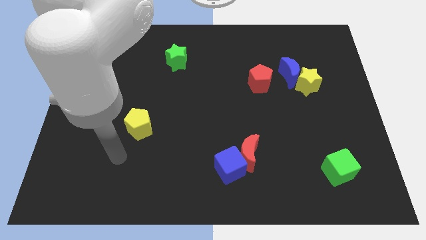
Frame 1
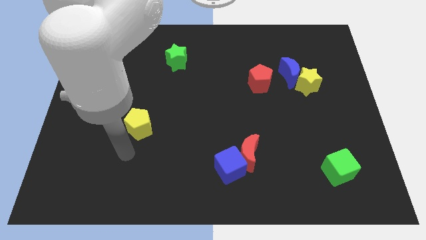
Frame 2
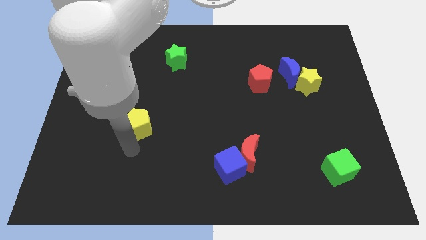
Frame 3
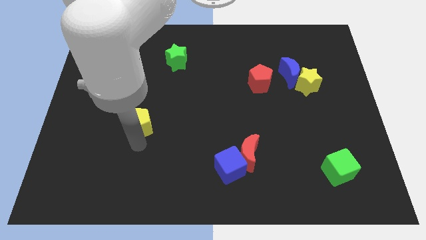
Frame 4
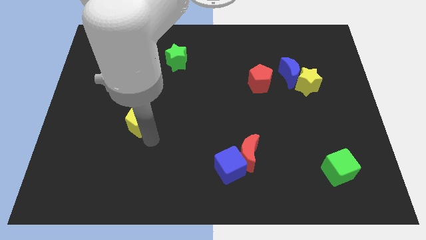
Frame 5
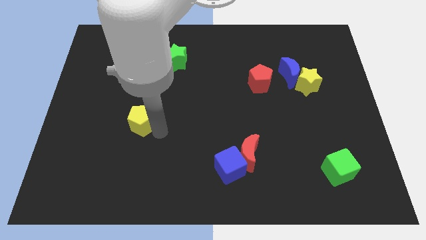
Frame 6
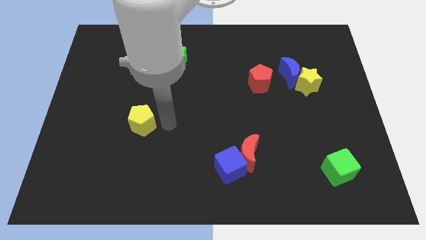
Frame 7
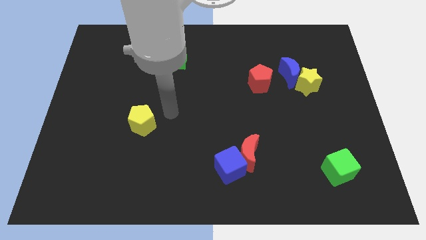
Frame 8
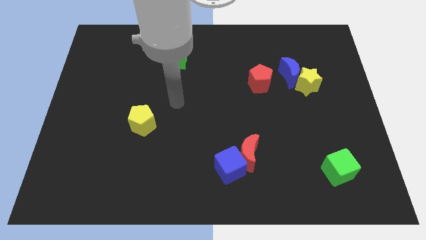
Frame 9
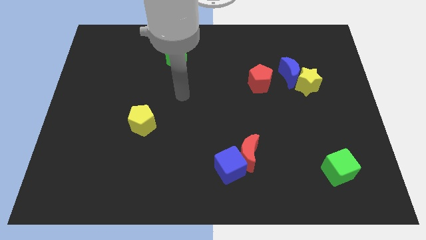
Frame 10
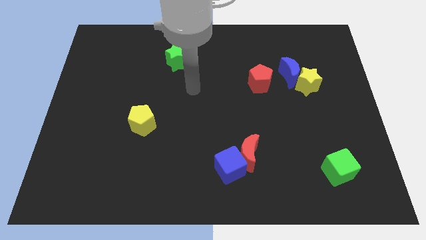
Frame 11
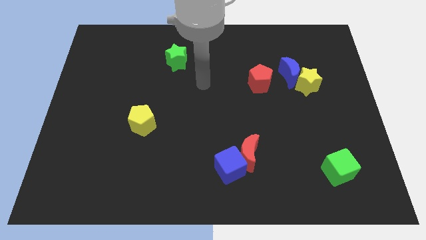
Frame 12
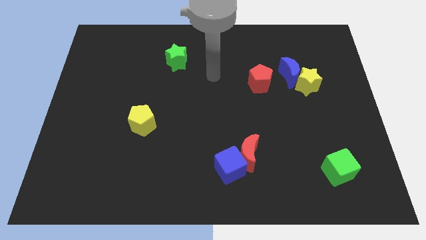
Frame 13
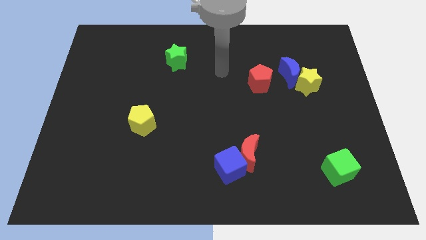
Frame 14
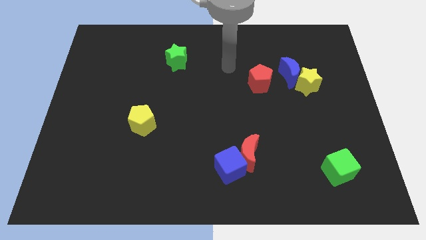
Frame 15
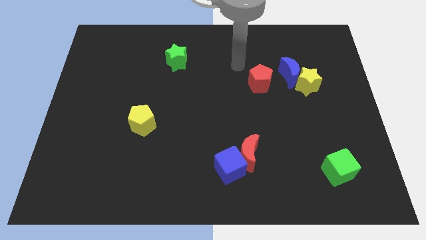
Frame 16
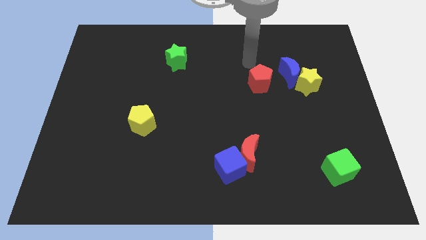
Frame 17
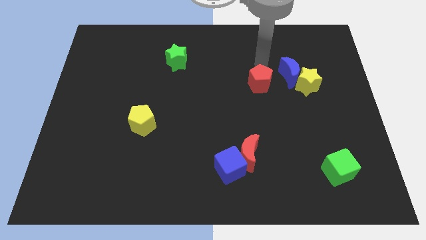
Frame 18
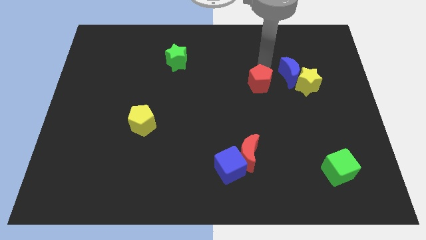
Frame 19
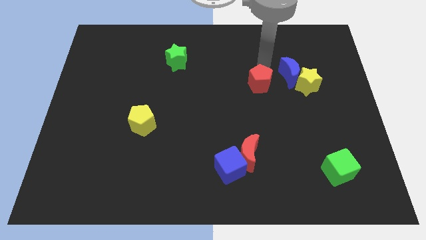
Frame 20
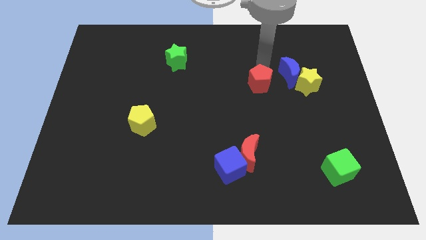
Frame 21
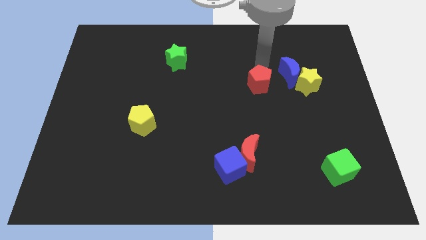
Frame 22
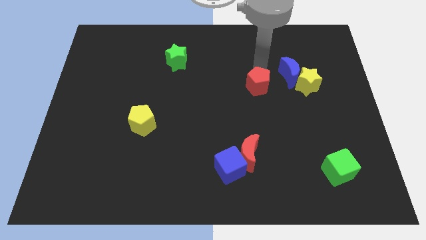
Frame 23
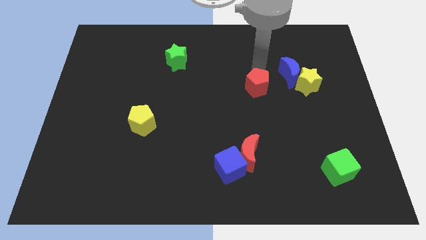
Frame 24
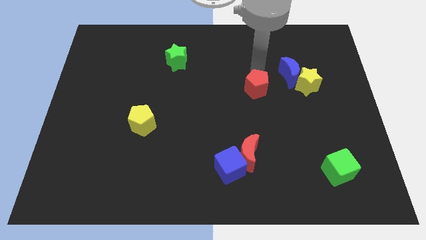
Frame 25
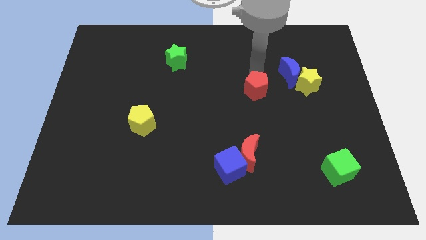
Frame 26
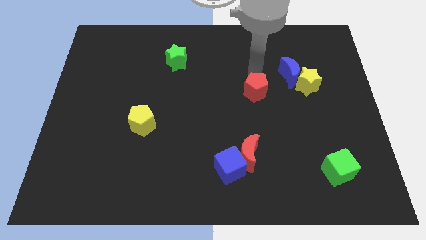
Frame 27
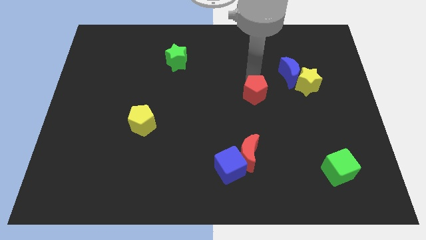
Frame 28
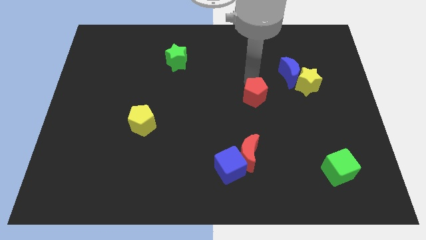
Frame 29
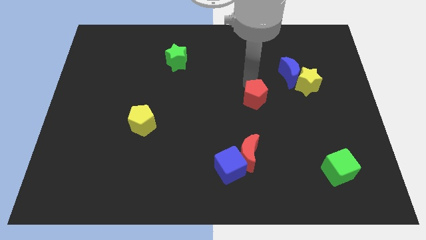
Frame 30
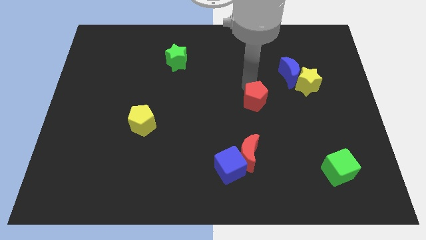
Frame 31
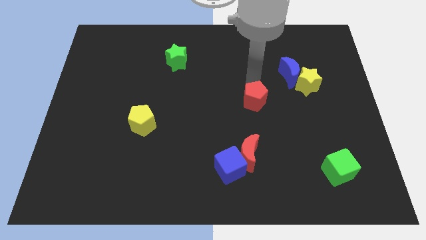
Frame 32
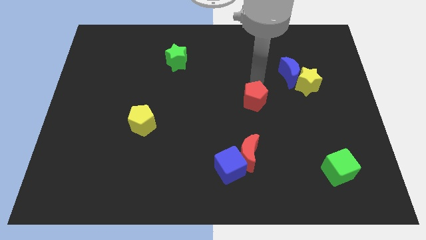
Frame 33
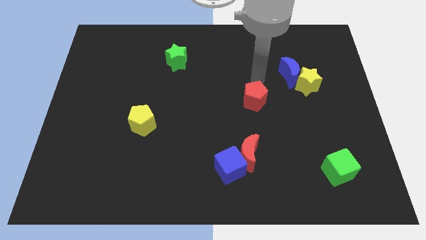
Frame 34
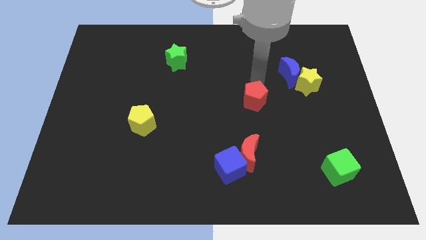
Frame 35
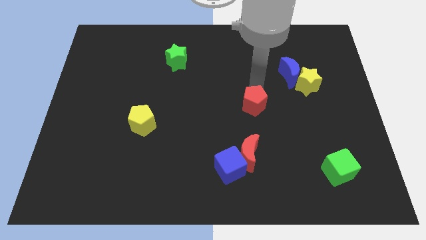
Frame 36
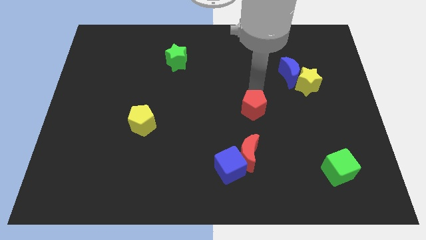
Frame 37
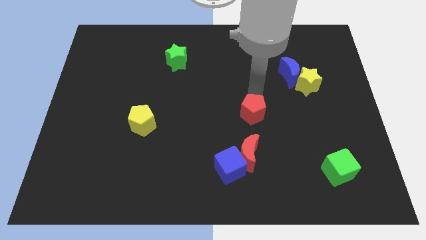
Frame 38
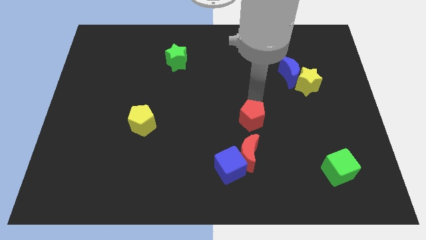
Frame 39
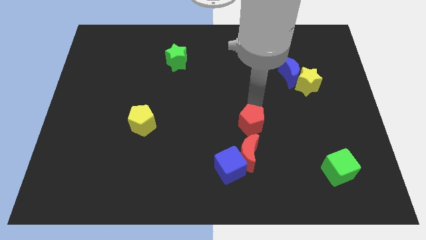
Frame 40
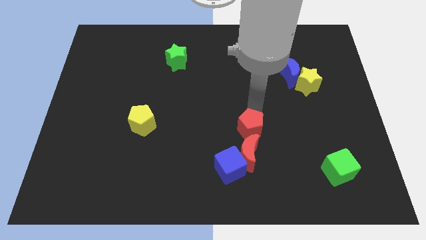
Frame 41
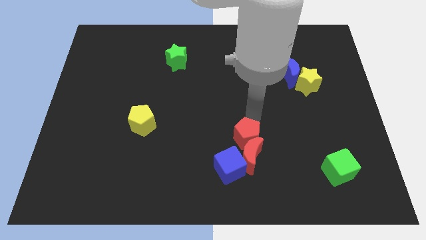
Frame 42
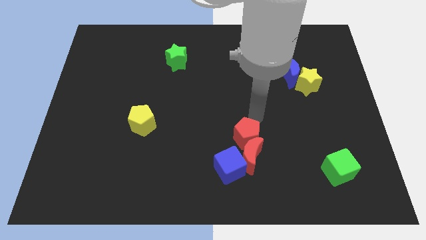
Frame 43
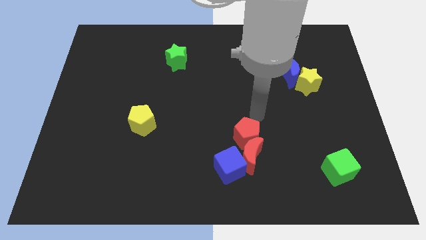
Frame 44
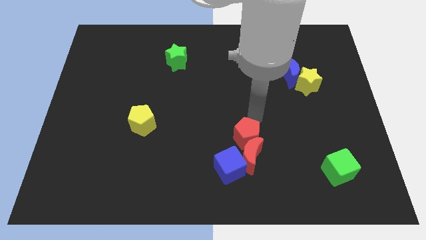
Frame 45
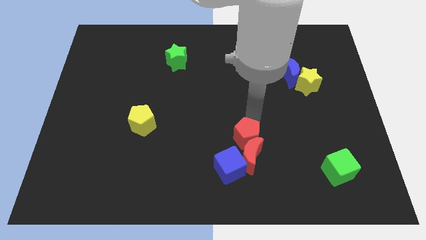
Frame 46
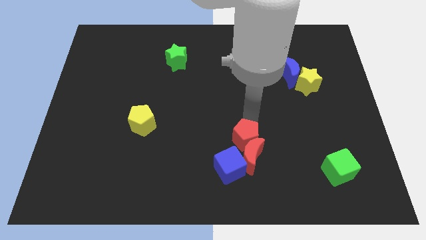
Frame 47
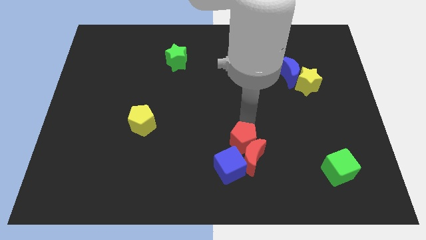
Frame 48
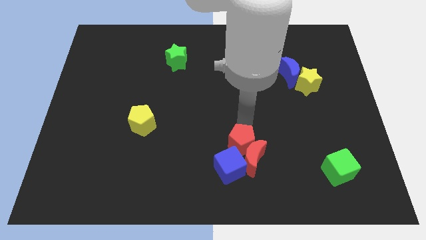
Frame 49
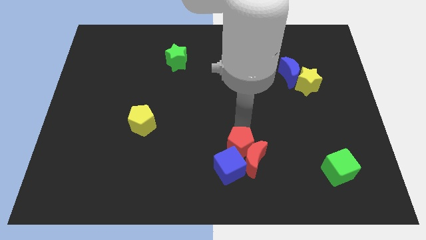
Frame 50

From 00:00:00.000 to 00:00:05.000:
move the red pentagon next to the blue cube

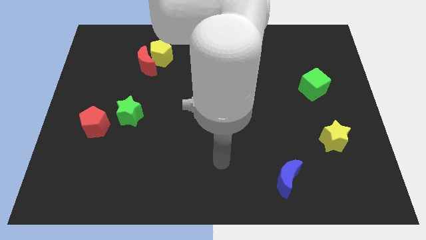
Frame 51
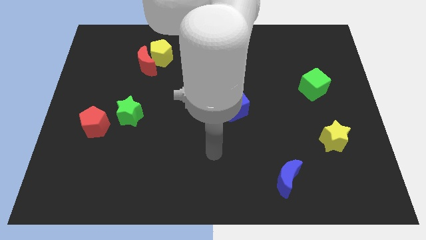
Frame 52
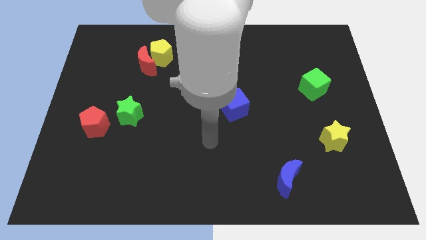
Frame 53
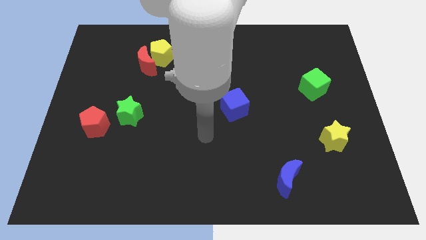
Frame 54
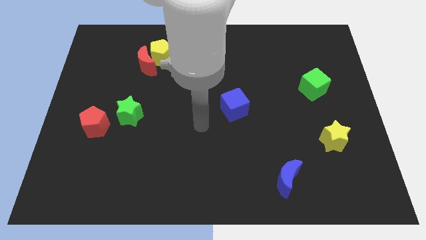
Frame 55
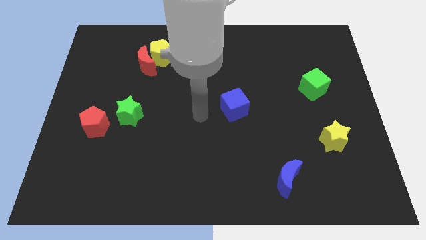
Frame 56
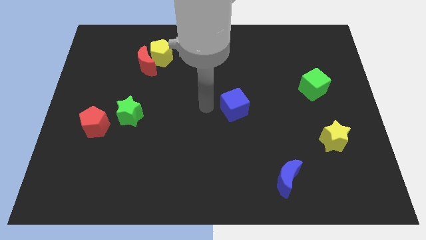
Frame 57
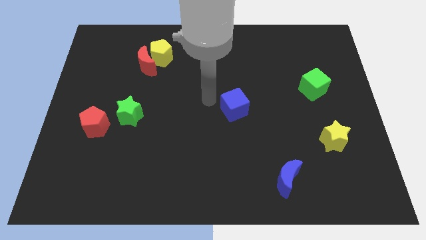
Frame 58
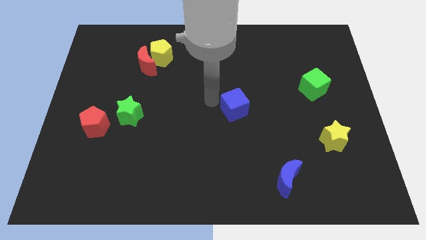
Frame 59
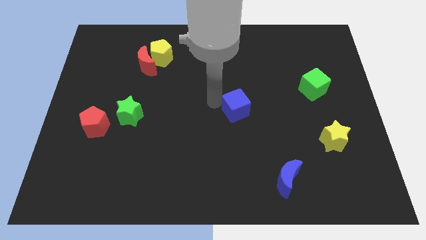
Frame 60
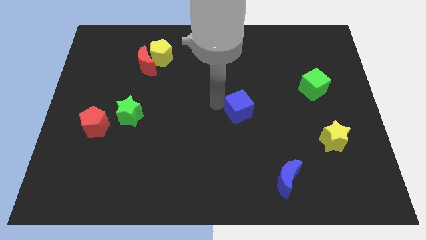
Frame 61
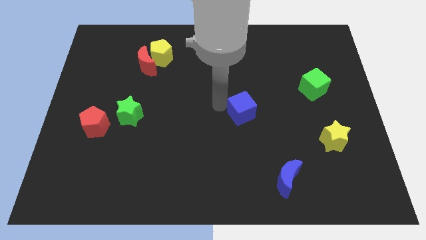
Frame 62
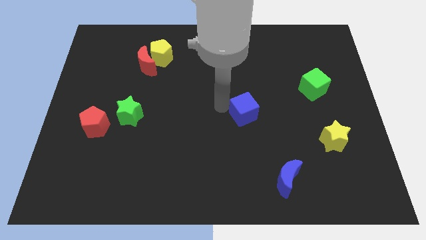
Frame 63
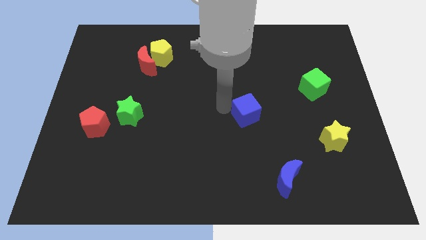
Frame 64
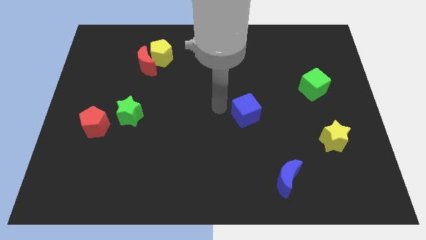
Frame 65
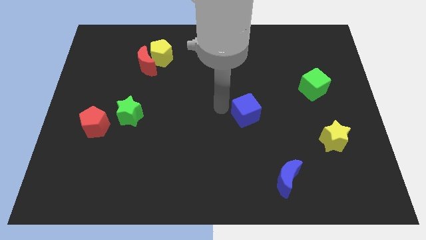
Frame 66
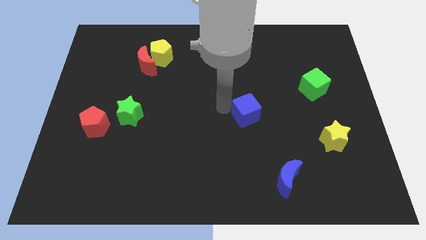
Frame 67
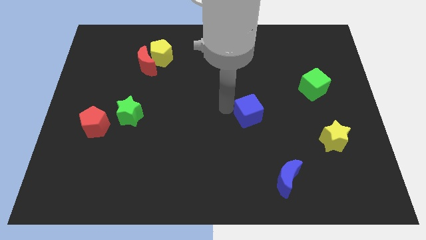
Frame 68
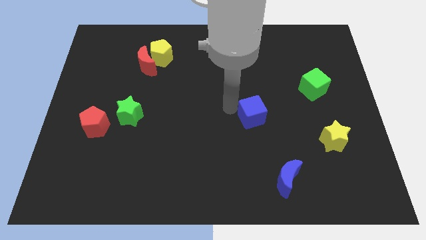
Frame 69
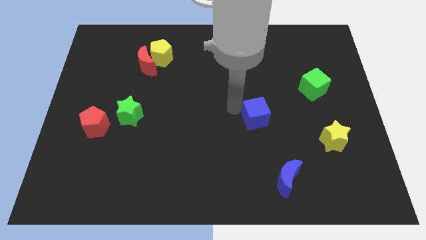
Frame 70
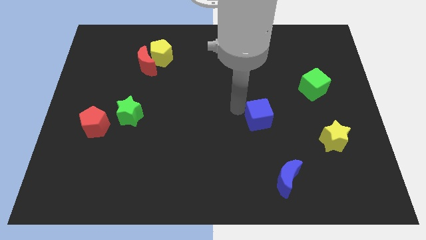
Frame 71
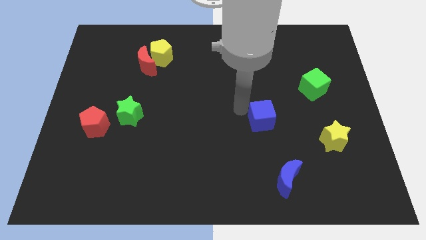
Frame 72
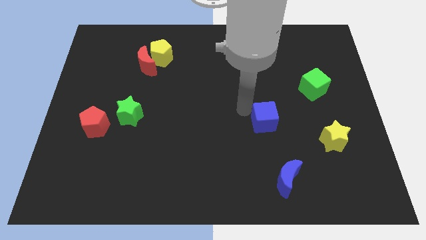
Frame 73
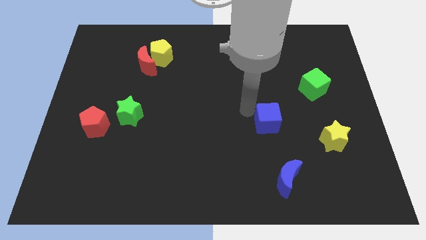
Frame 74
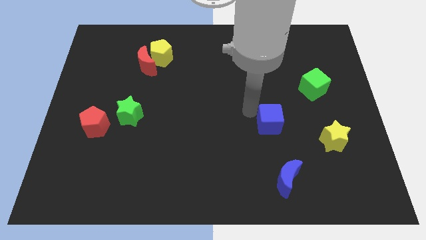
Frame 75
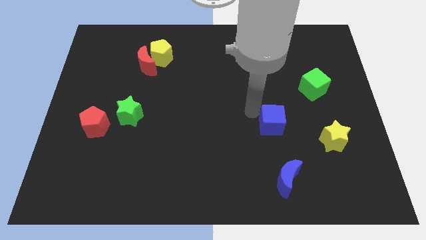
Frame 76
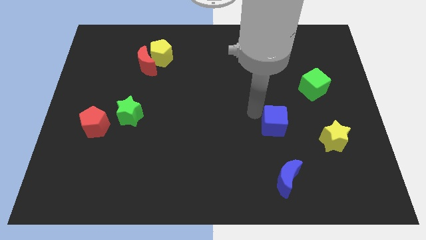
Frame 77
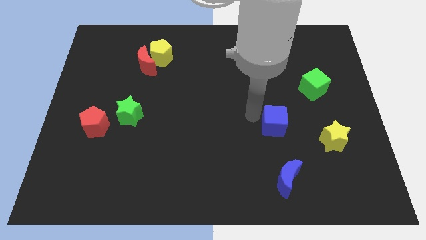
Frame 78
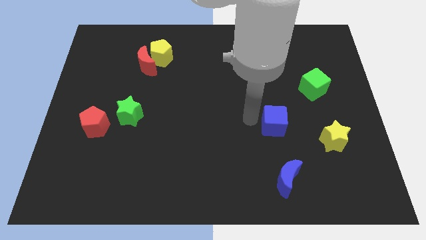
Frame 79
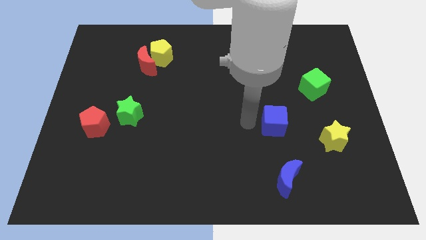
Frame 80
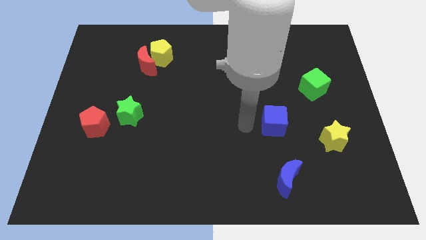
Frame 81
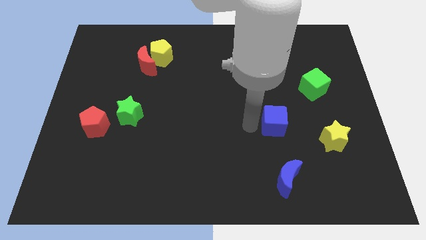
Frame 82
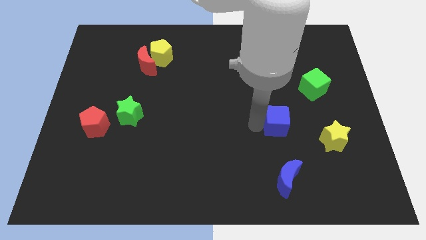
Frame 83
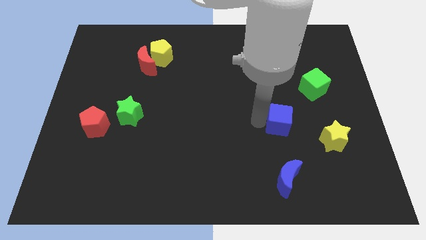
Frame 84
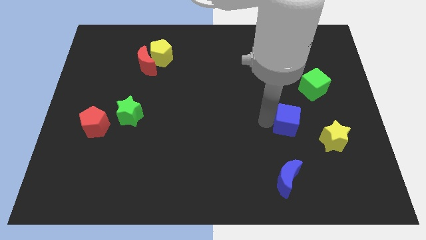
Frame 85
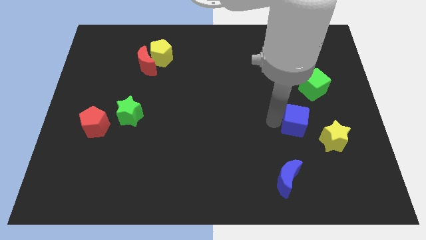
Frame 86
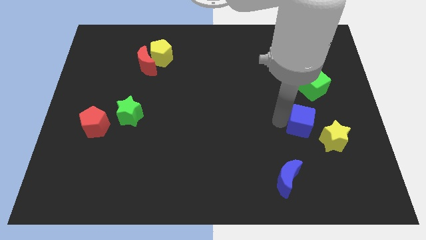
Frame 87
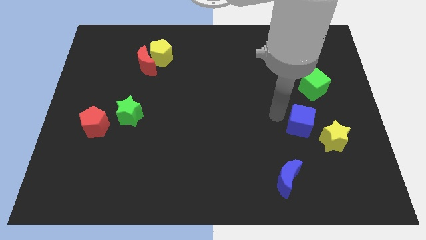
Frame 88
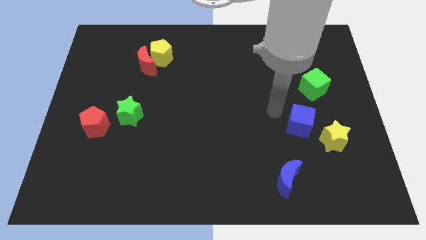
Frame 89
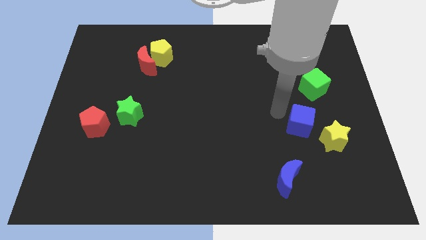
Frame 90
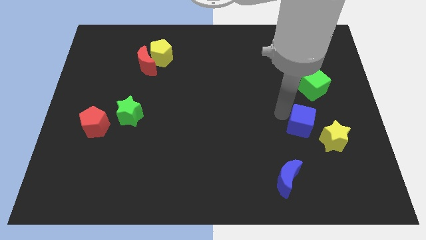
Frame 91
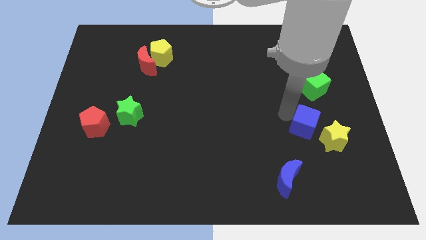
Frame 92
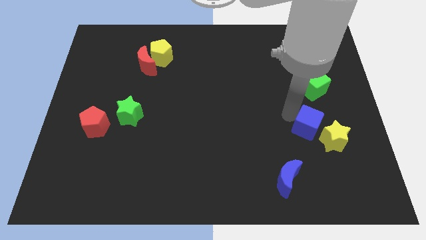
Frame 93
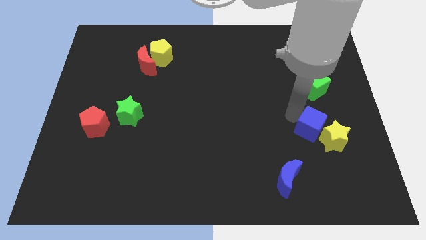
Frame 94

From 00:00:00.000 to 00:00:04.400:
slide the blue cube next to the yellow star
